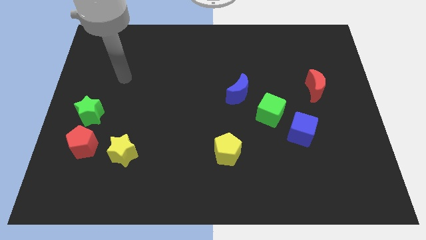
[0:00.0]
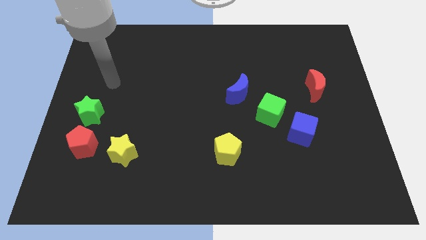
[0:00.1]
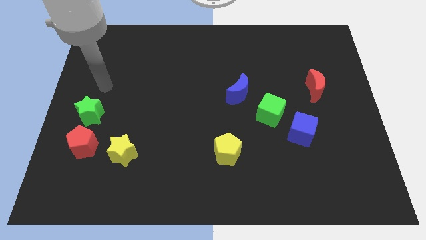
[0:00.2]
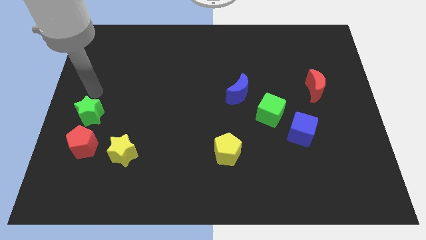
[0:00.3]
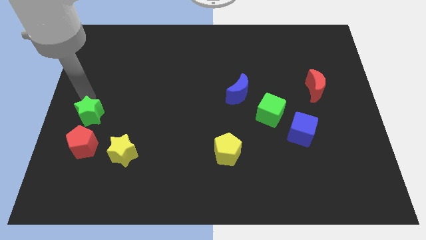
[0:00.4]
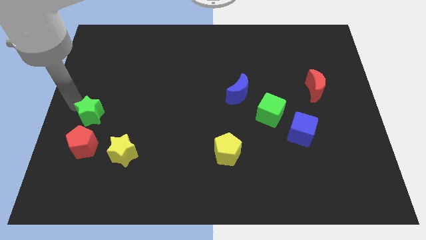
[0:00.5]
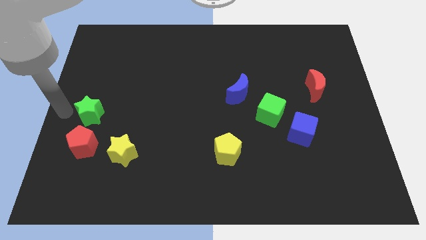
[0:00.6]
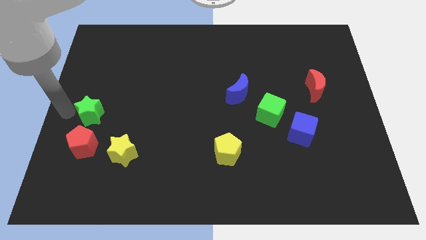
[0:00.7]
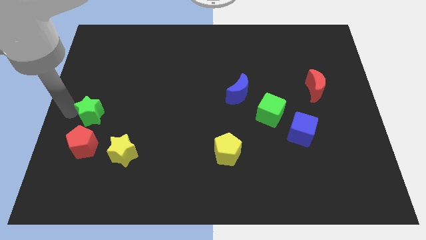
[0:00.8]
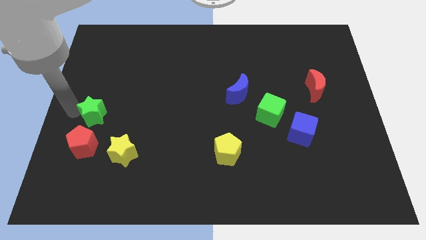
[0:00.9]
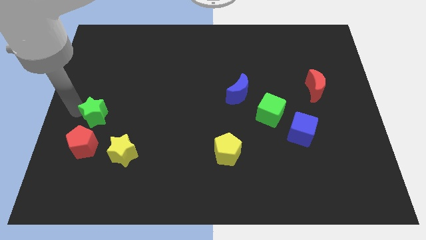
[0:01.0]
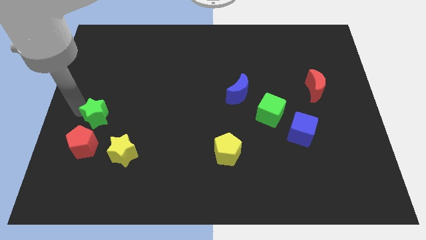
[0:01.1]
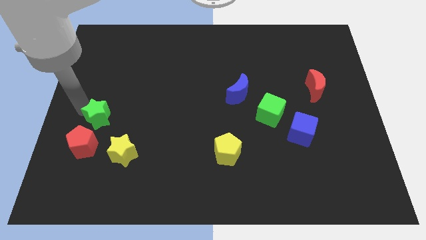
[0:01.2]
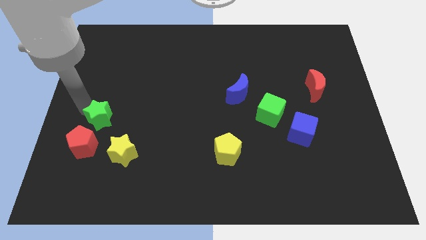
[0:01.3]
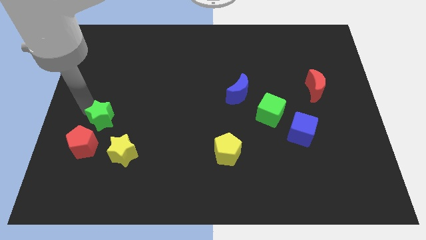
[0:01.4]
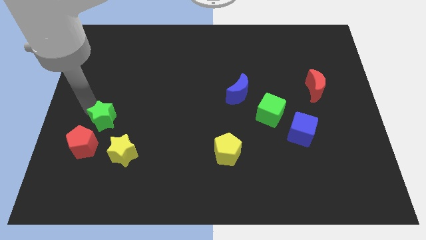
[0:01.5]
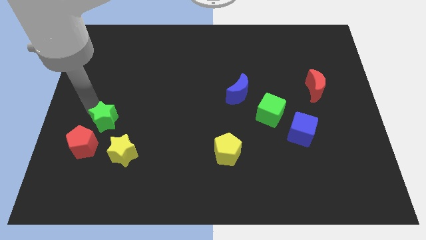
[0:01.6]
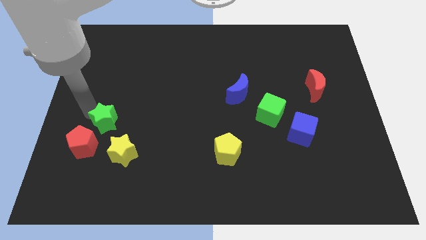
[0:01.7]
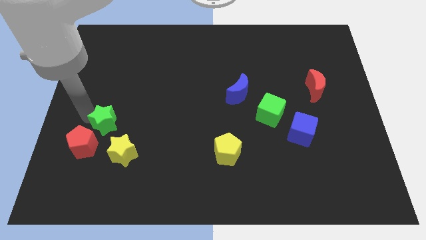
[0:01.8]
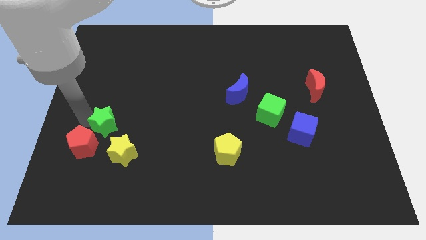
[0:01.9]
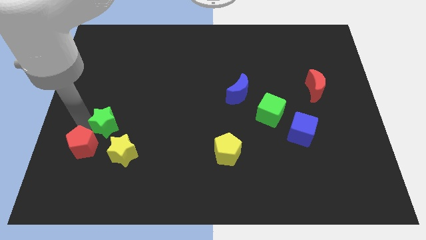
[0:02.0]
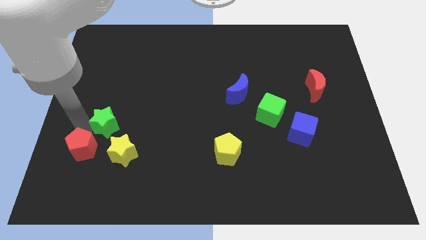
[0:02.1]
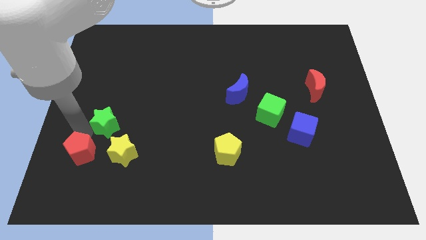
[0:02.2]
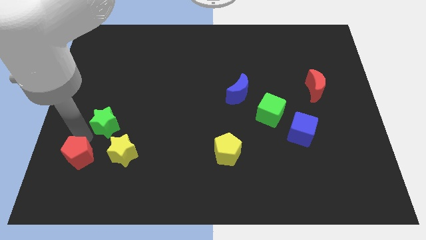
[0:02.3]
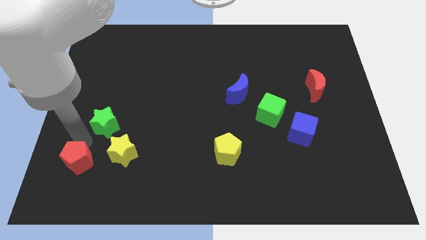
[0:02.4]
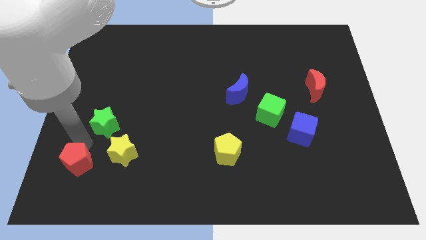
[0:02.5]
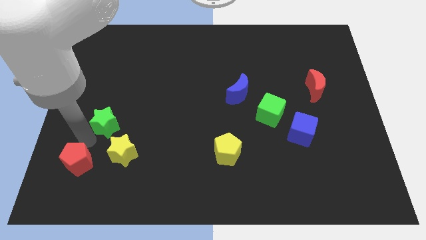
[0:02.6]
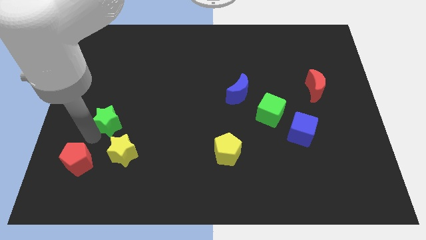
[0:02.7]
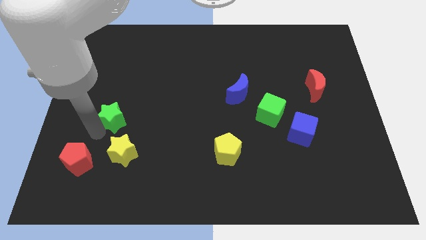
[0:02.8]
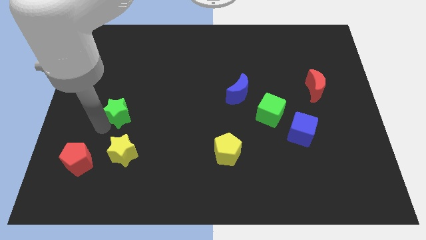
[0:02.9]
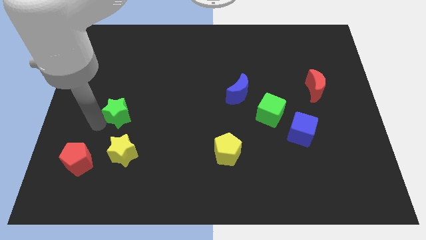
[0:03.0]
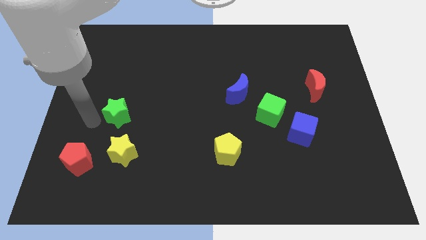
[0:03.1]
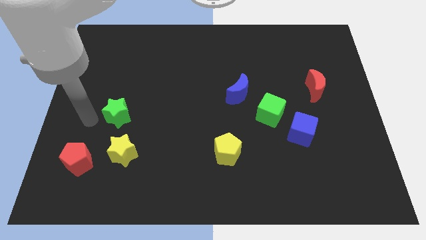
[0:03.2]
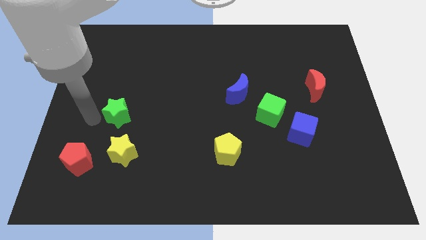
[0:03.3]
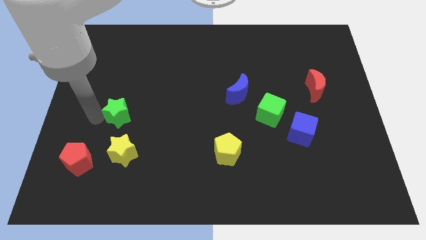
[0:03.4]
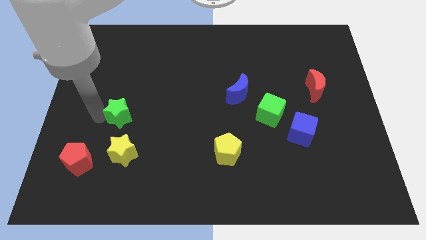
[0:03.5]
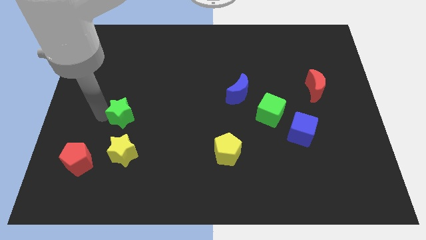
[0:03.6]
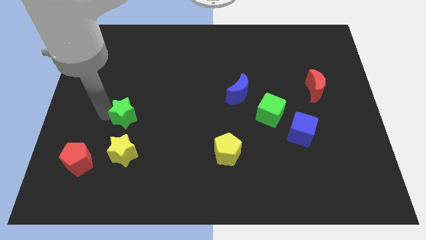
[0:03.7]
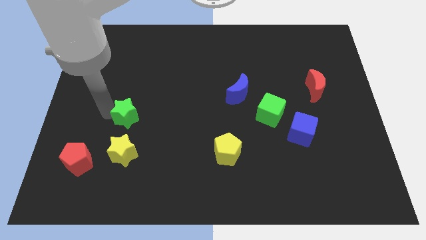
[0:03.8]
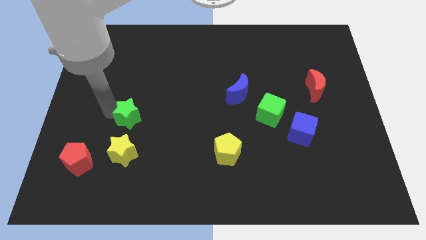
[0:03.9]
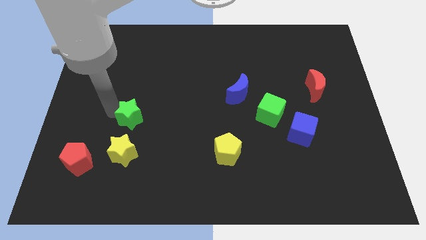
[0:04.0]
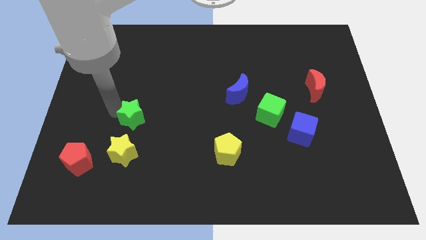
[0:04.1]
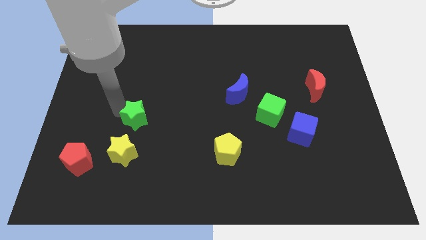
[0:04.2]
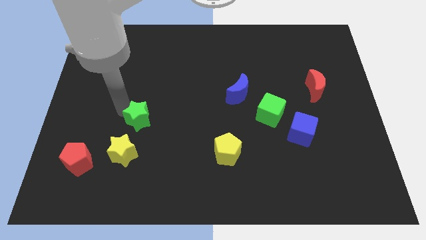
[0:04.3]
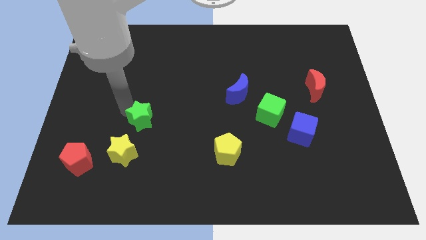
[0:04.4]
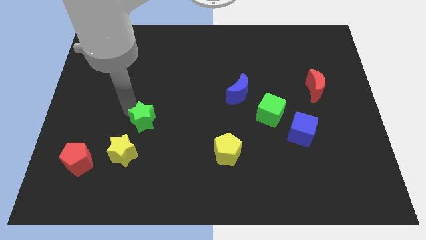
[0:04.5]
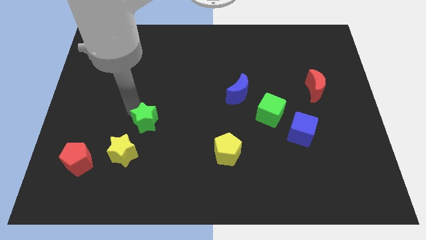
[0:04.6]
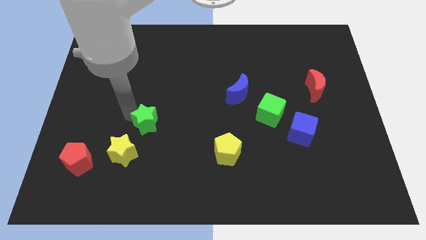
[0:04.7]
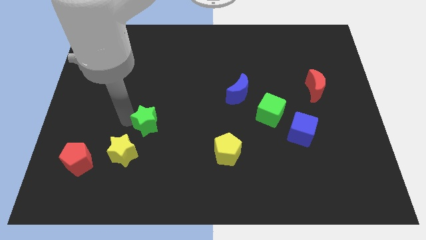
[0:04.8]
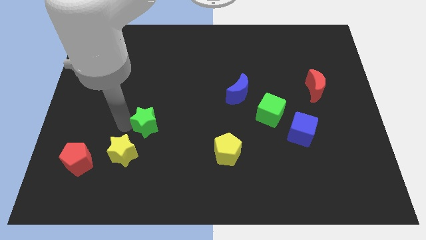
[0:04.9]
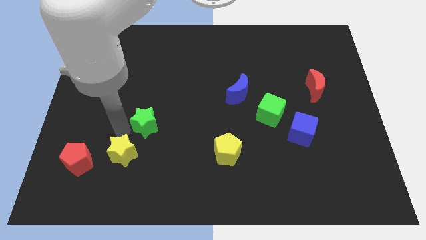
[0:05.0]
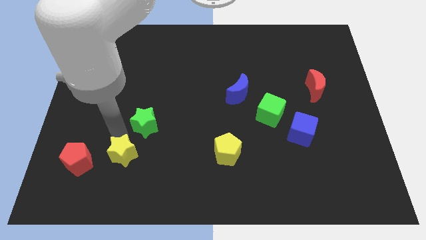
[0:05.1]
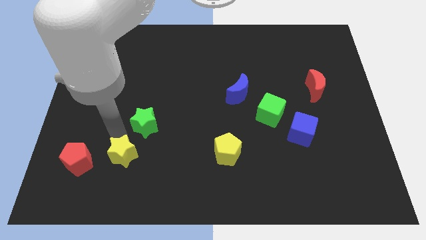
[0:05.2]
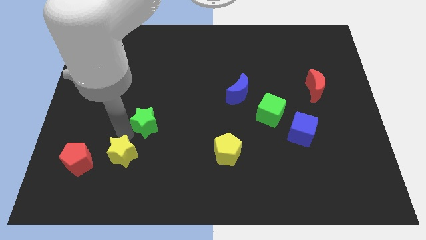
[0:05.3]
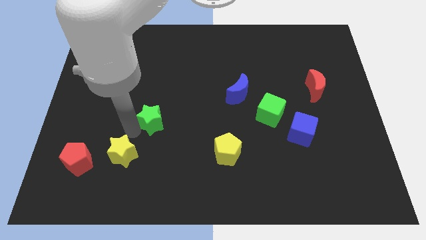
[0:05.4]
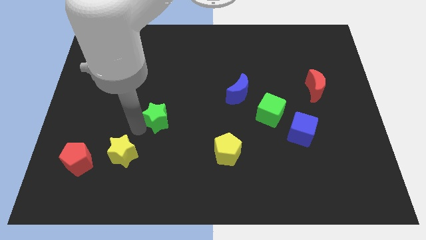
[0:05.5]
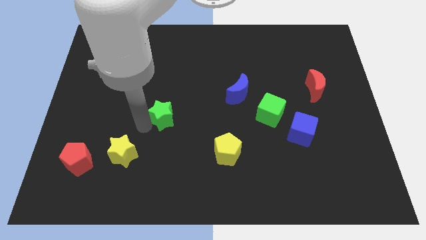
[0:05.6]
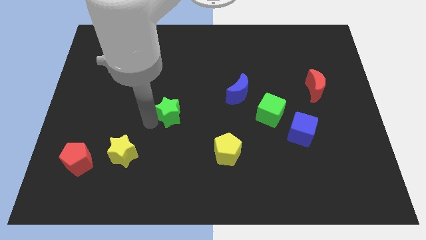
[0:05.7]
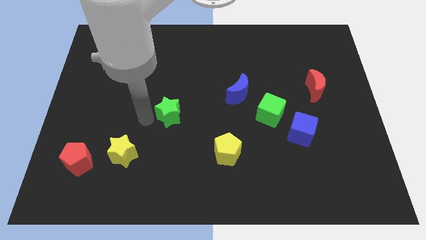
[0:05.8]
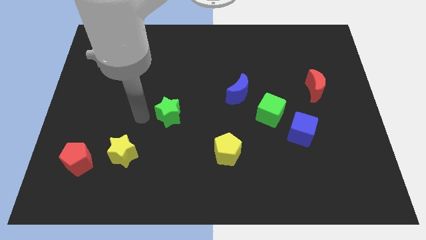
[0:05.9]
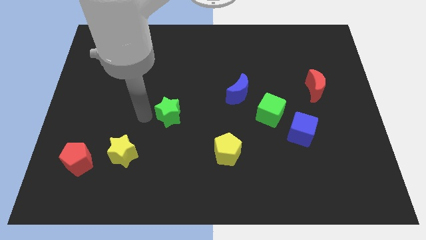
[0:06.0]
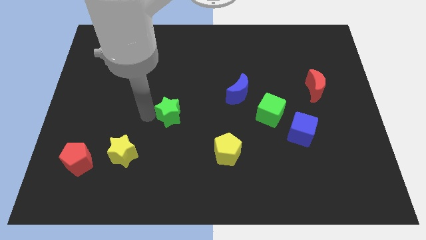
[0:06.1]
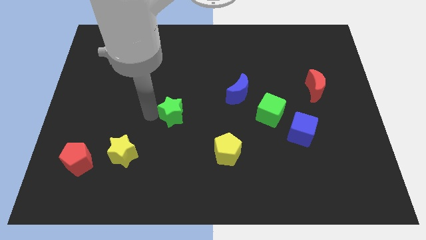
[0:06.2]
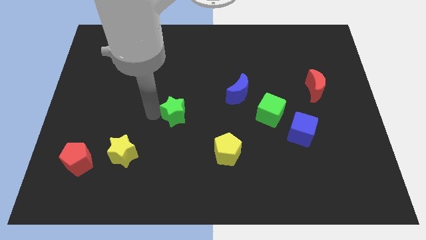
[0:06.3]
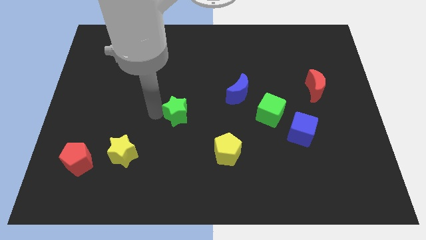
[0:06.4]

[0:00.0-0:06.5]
slide the green star right

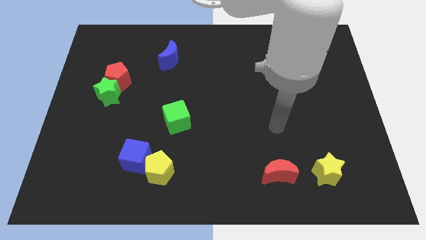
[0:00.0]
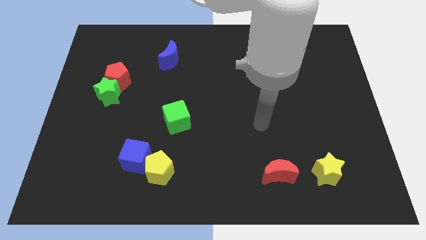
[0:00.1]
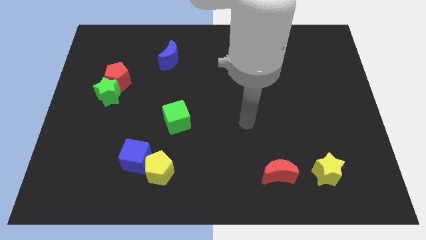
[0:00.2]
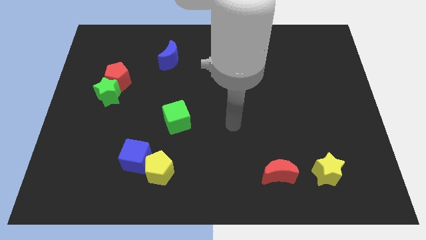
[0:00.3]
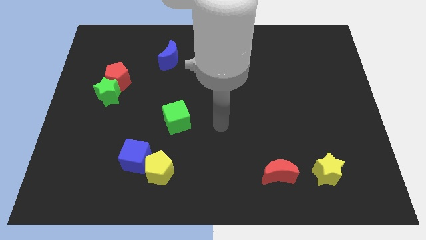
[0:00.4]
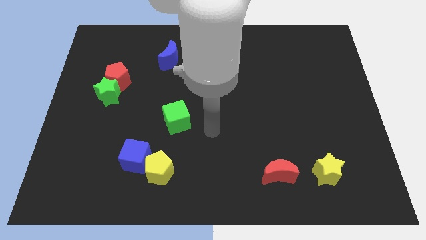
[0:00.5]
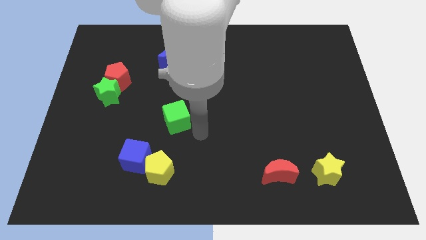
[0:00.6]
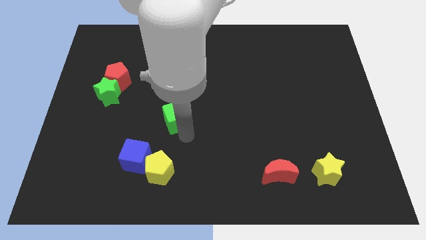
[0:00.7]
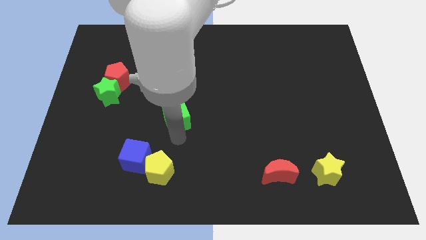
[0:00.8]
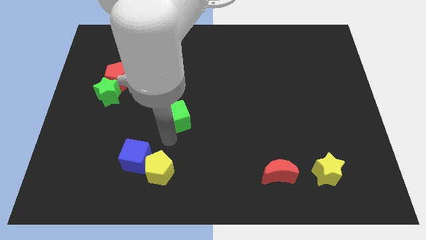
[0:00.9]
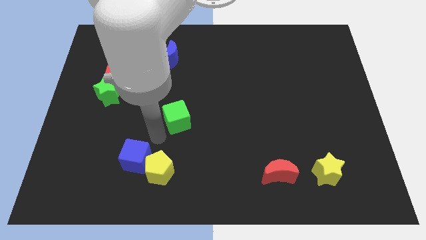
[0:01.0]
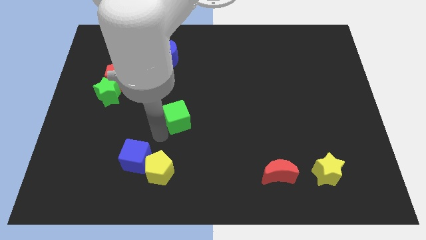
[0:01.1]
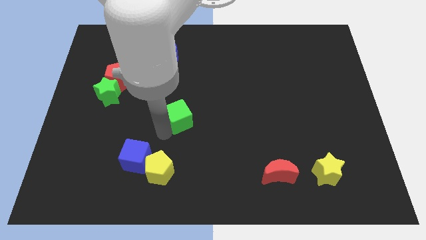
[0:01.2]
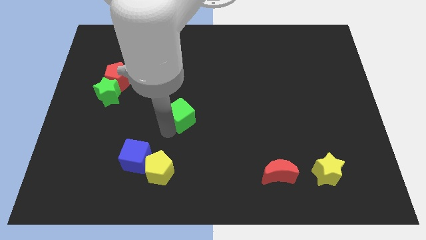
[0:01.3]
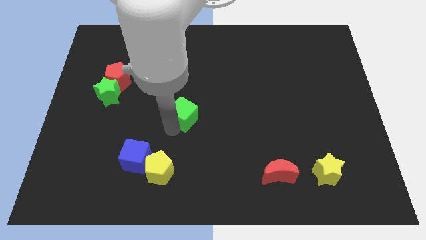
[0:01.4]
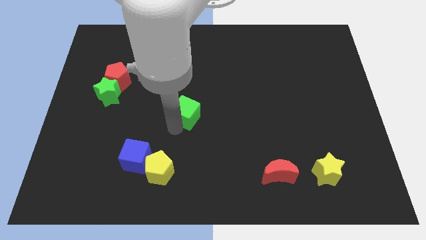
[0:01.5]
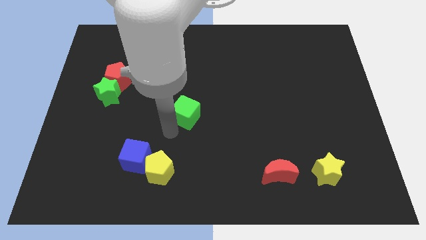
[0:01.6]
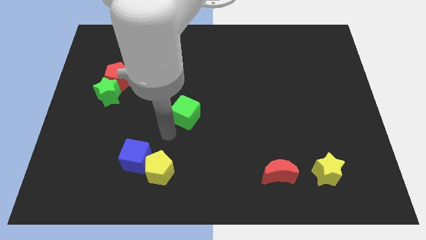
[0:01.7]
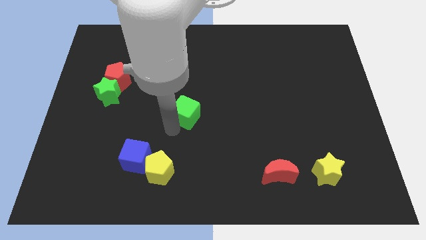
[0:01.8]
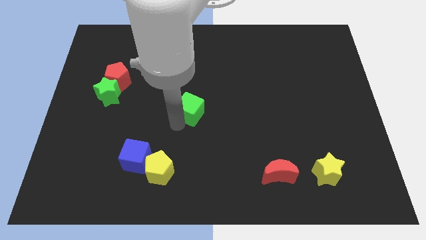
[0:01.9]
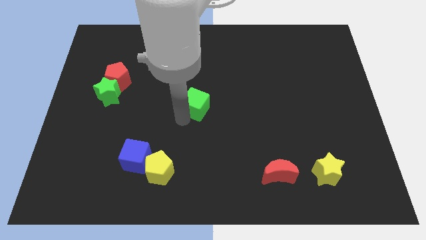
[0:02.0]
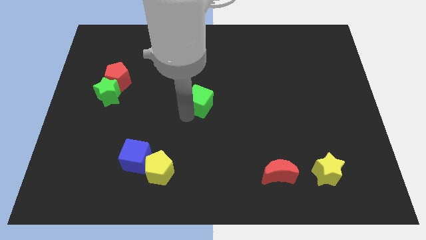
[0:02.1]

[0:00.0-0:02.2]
slide the green cube upwards and to the right diagonally slightly
